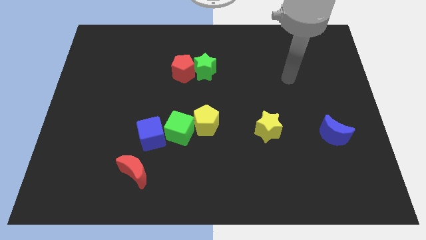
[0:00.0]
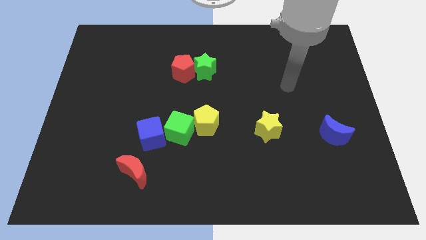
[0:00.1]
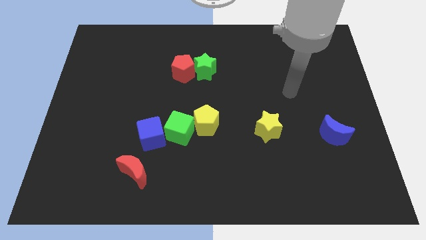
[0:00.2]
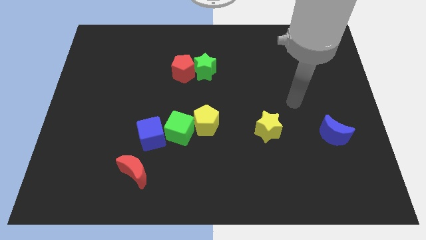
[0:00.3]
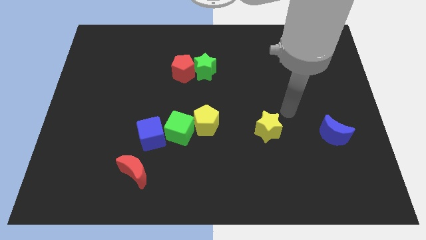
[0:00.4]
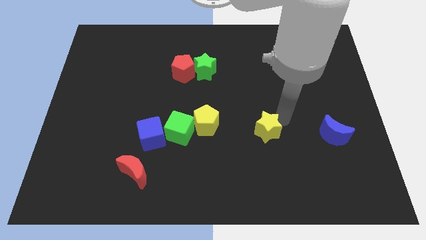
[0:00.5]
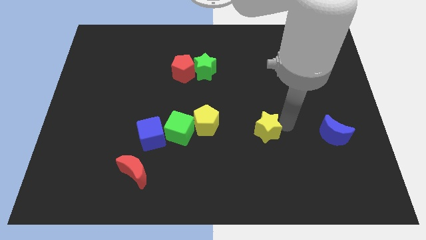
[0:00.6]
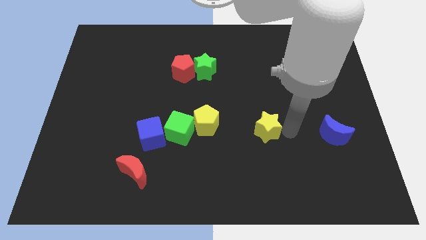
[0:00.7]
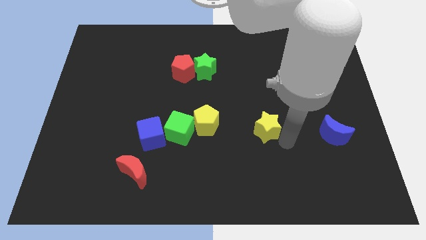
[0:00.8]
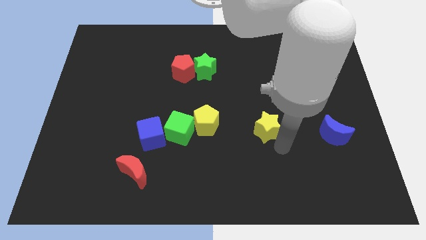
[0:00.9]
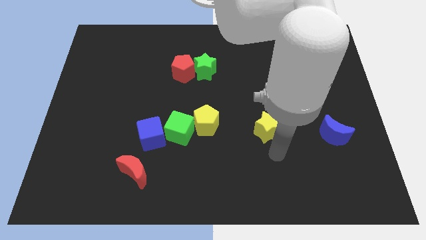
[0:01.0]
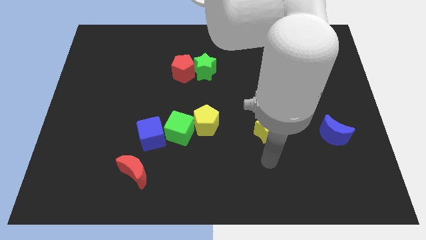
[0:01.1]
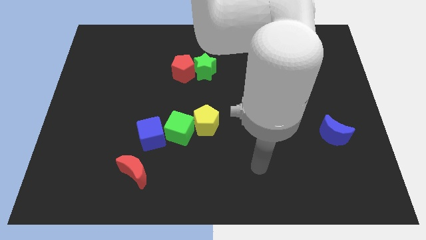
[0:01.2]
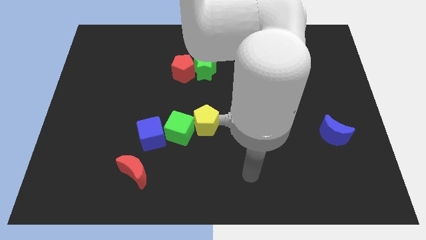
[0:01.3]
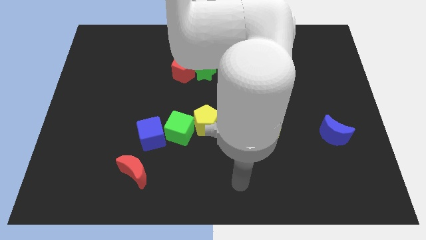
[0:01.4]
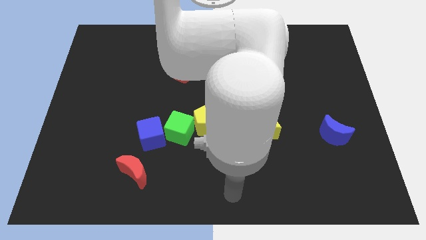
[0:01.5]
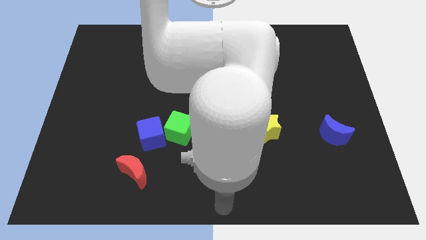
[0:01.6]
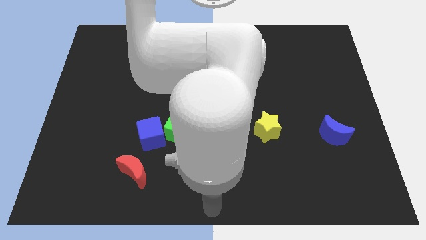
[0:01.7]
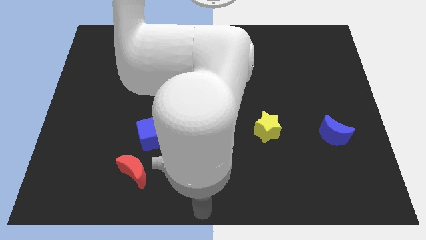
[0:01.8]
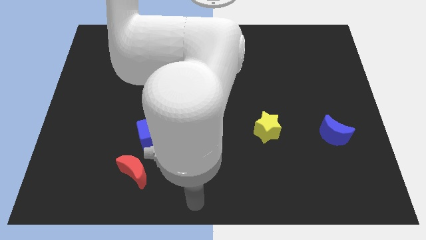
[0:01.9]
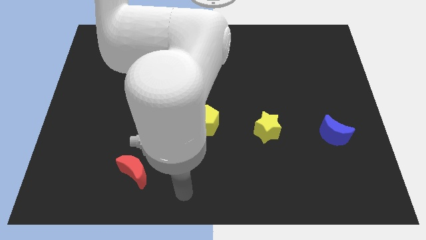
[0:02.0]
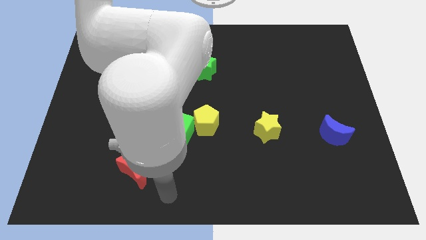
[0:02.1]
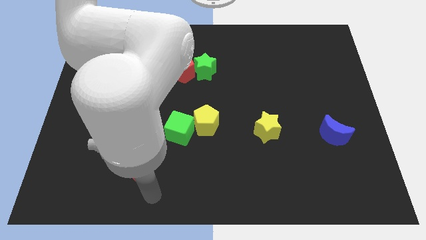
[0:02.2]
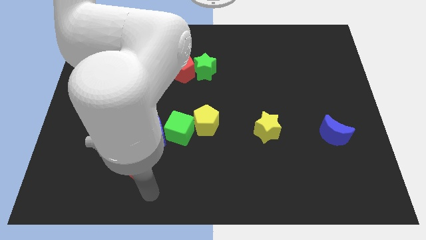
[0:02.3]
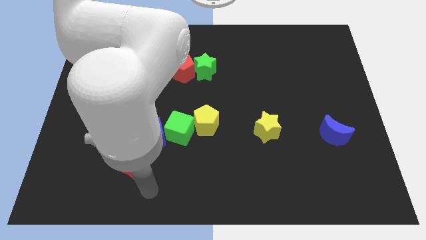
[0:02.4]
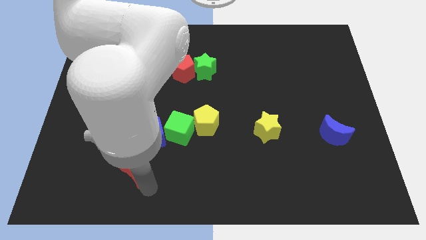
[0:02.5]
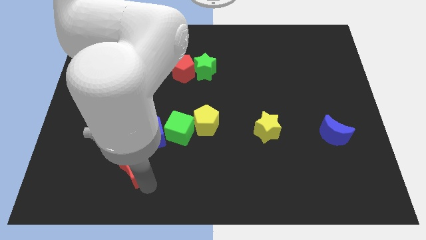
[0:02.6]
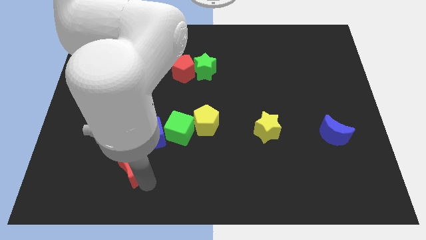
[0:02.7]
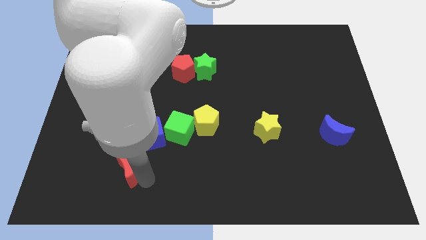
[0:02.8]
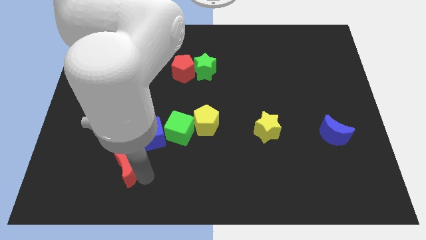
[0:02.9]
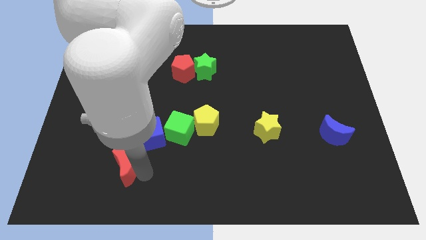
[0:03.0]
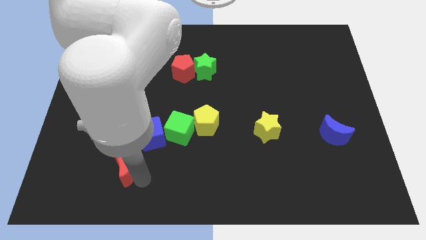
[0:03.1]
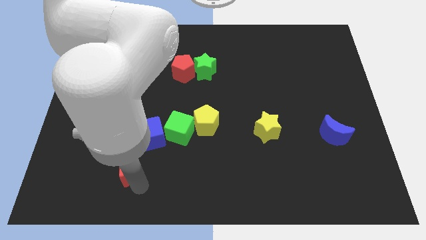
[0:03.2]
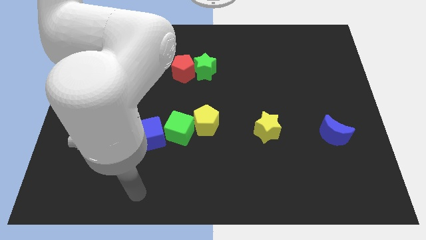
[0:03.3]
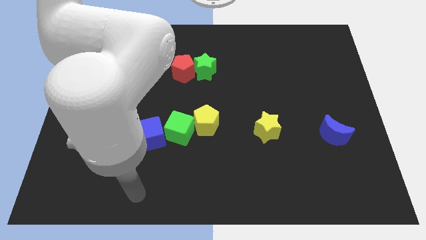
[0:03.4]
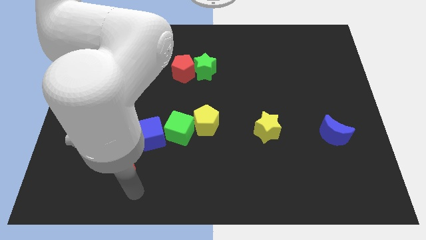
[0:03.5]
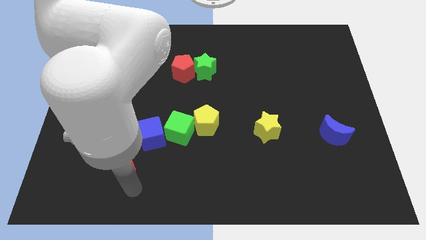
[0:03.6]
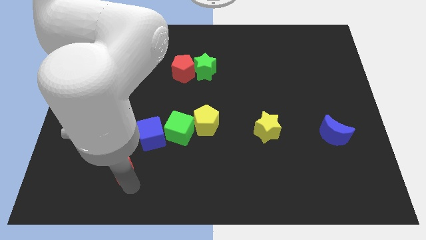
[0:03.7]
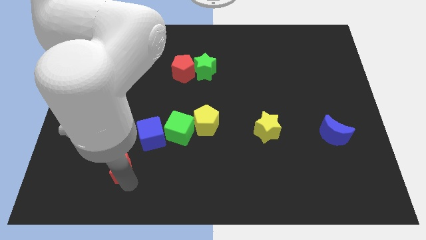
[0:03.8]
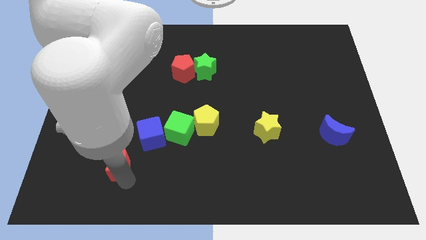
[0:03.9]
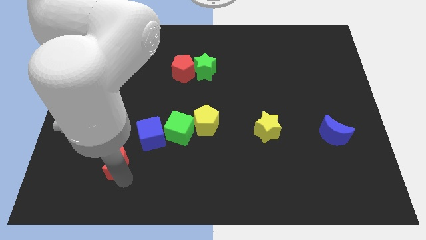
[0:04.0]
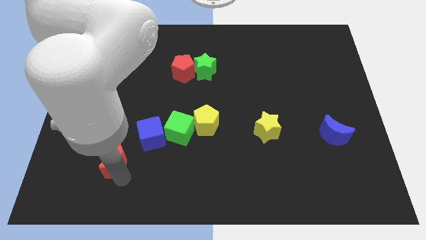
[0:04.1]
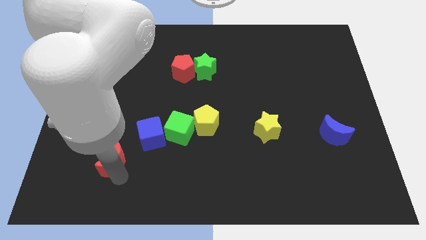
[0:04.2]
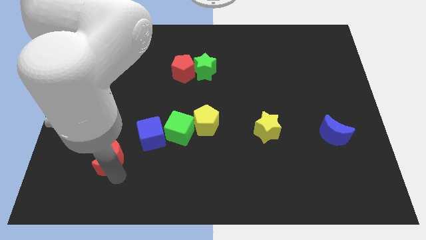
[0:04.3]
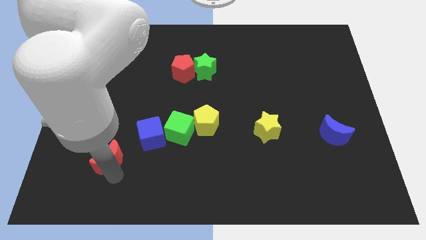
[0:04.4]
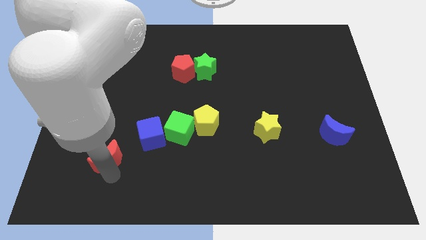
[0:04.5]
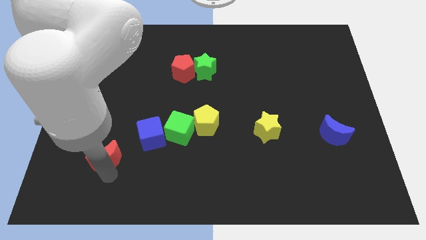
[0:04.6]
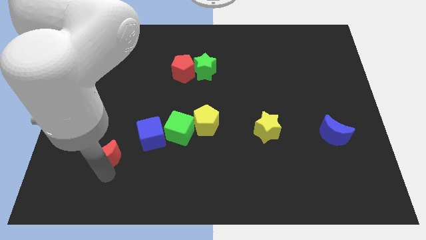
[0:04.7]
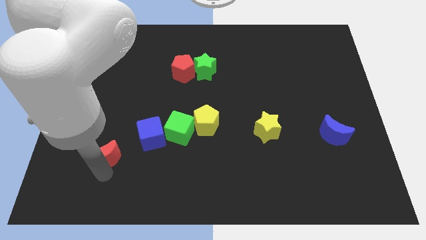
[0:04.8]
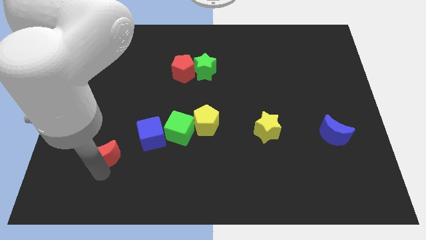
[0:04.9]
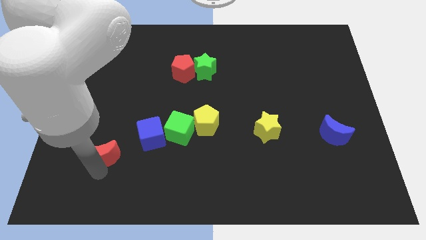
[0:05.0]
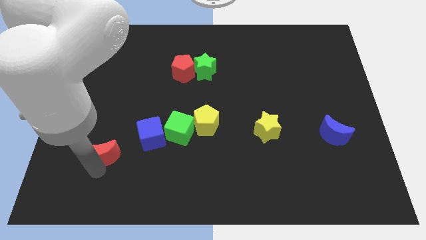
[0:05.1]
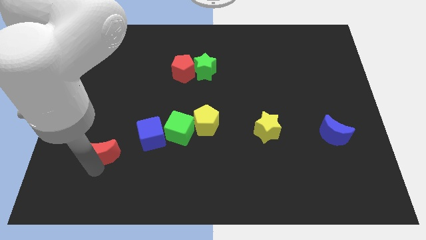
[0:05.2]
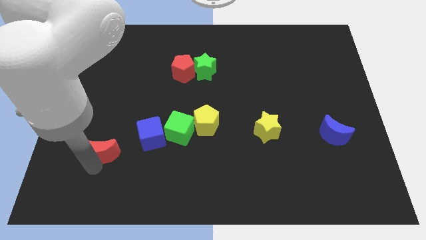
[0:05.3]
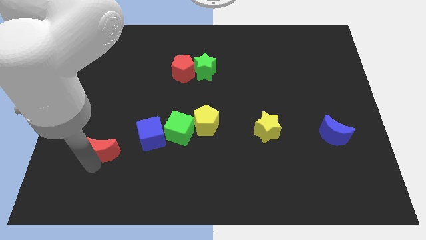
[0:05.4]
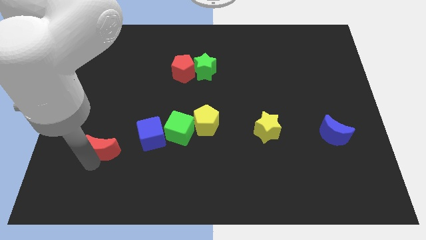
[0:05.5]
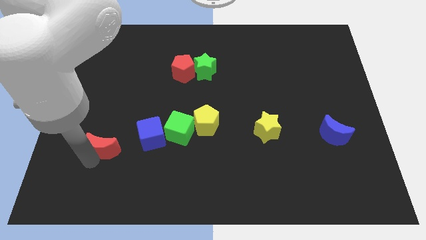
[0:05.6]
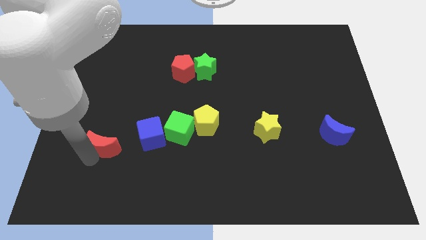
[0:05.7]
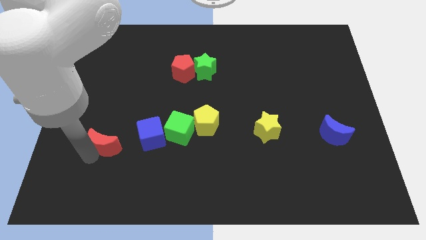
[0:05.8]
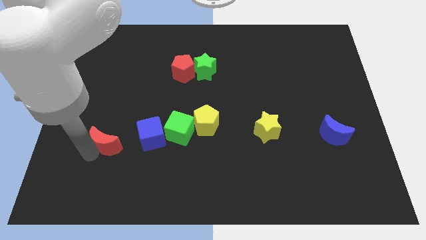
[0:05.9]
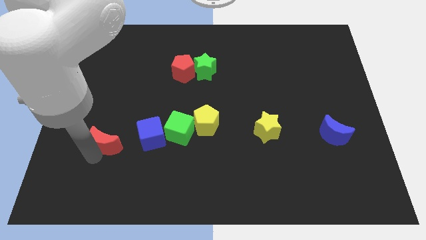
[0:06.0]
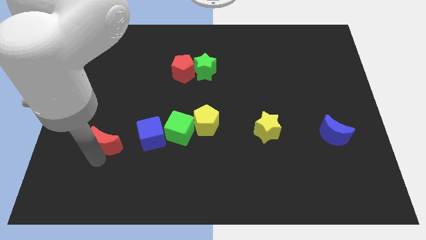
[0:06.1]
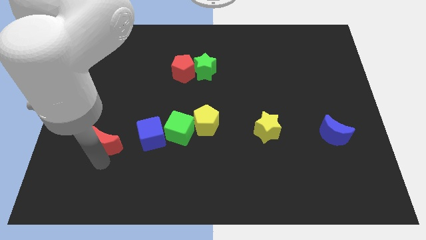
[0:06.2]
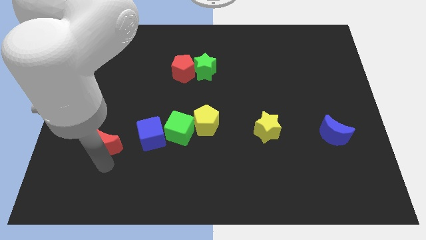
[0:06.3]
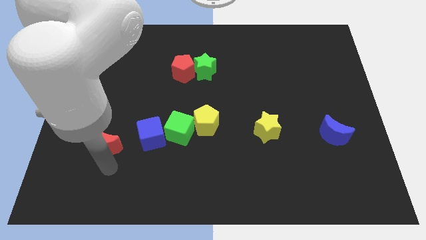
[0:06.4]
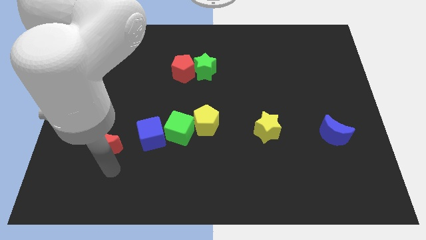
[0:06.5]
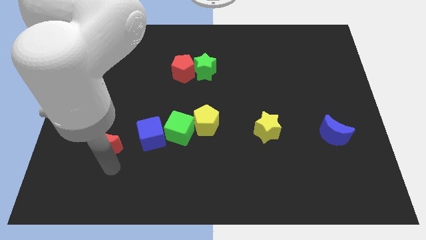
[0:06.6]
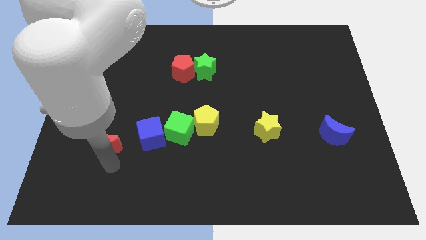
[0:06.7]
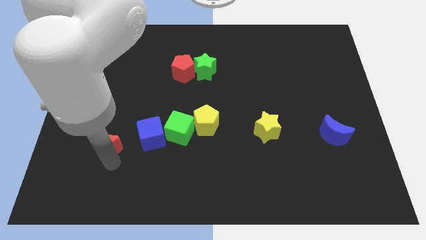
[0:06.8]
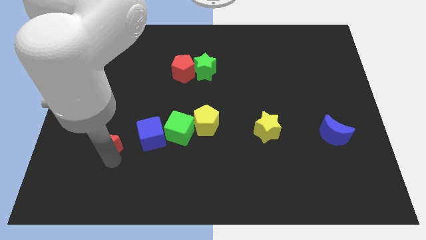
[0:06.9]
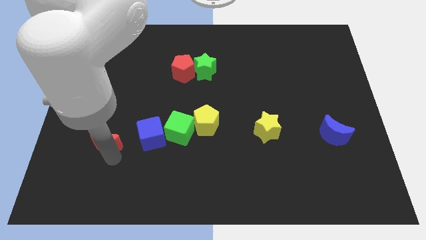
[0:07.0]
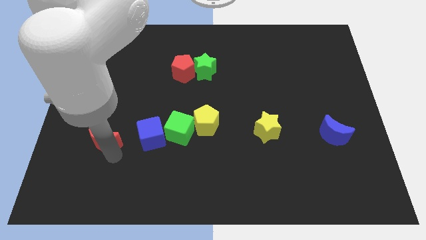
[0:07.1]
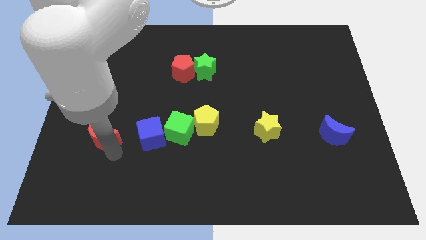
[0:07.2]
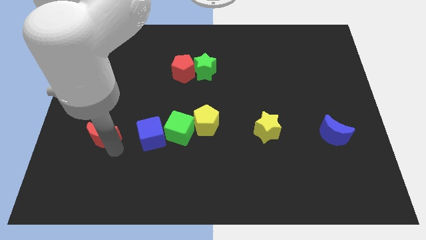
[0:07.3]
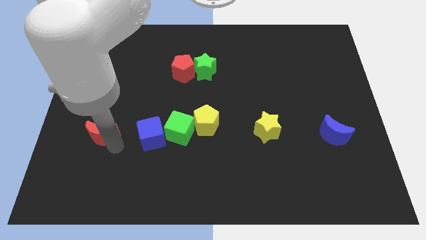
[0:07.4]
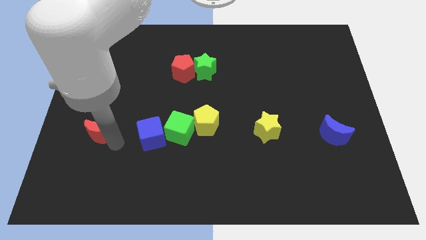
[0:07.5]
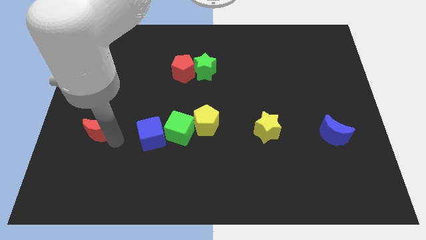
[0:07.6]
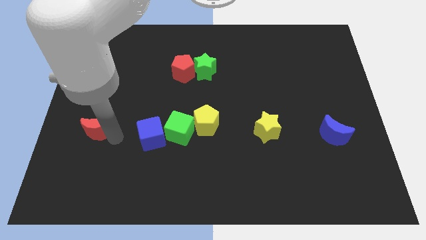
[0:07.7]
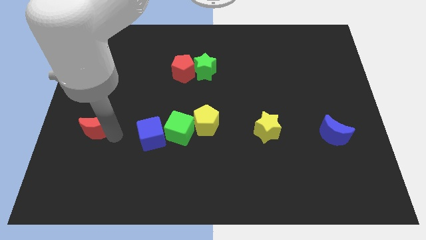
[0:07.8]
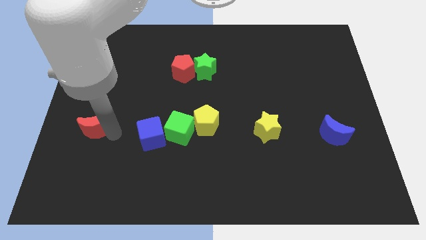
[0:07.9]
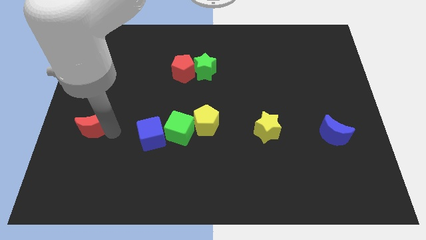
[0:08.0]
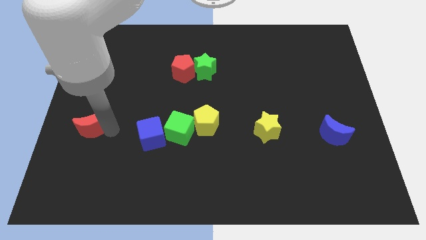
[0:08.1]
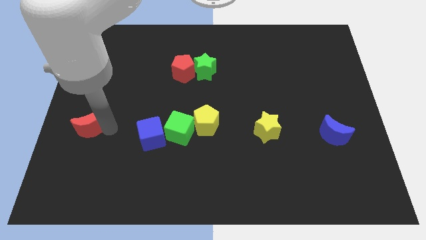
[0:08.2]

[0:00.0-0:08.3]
move the red moon to the left side
